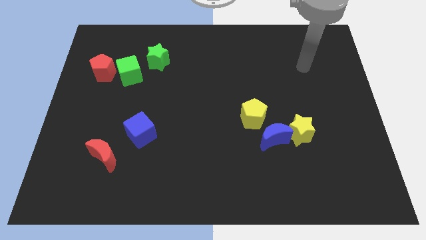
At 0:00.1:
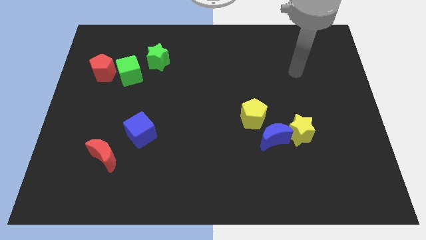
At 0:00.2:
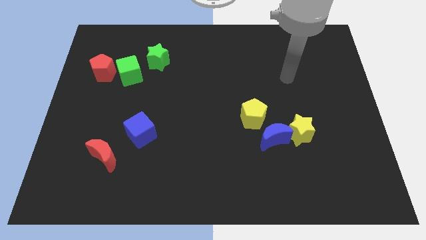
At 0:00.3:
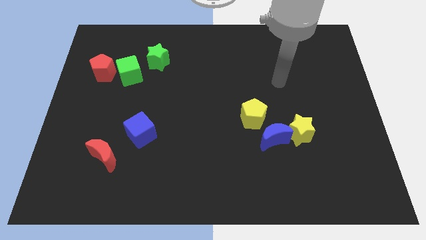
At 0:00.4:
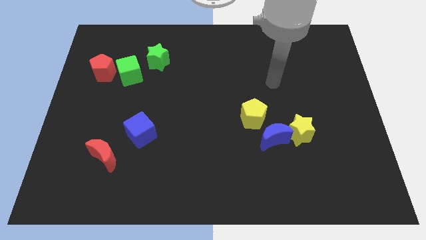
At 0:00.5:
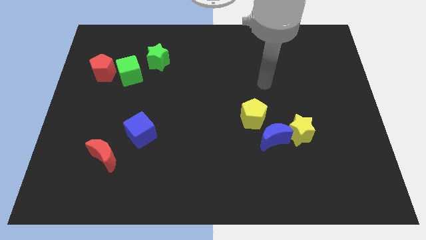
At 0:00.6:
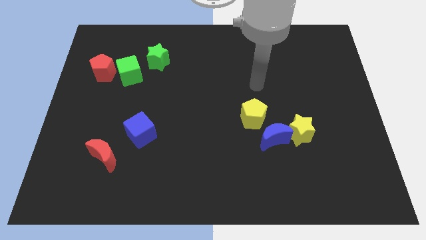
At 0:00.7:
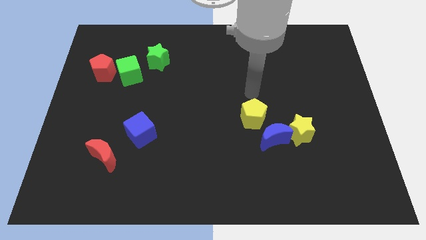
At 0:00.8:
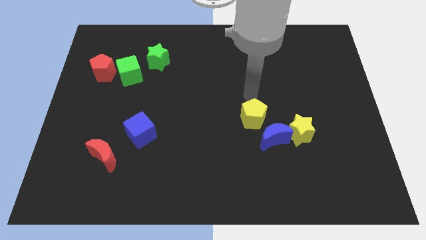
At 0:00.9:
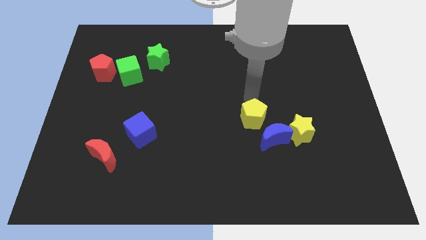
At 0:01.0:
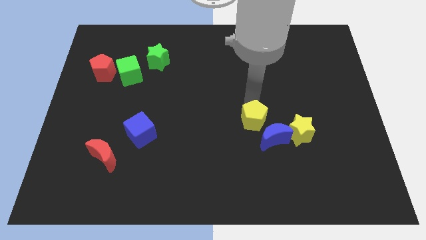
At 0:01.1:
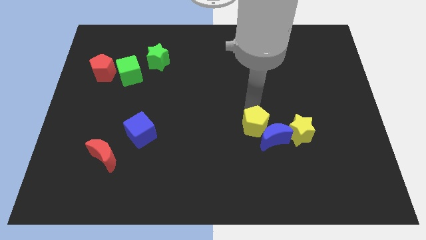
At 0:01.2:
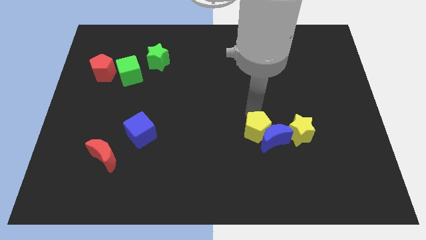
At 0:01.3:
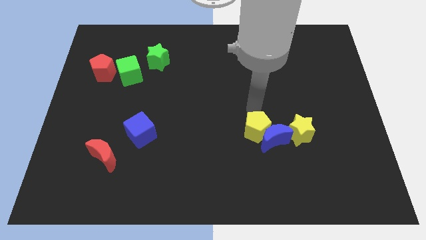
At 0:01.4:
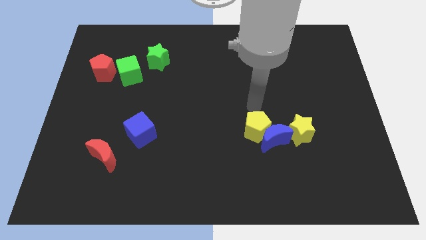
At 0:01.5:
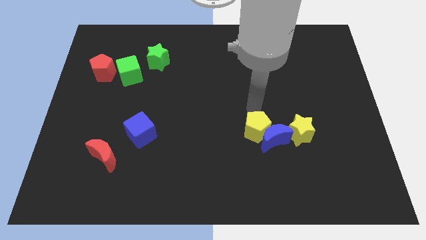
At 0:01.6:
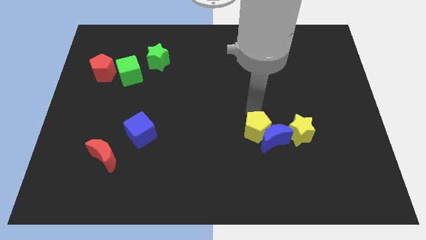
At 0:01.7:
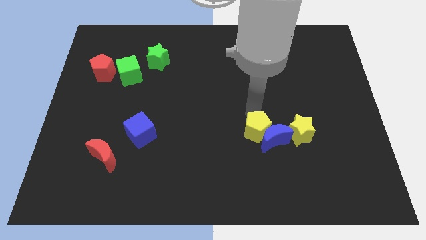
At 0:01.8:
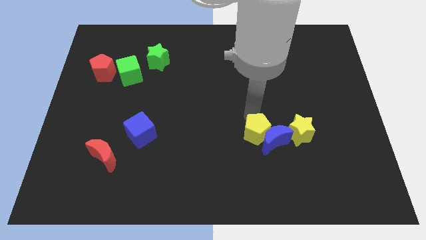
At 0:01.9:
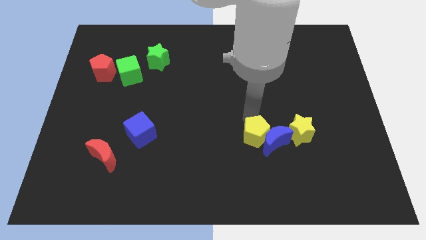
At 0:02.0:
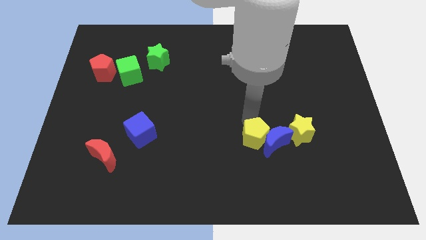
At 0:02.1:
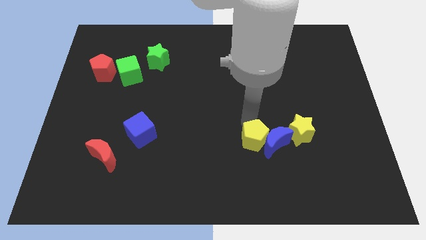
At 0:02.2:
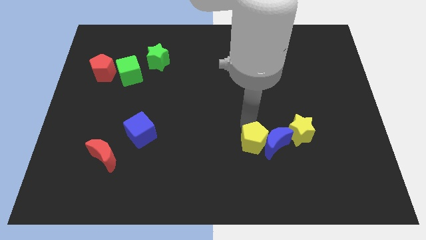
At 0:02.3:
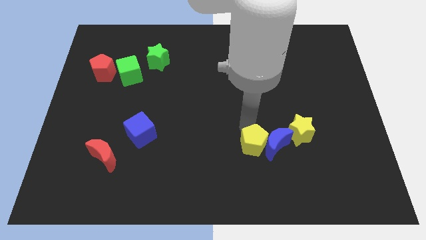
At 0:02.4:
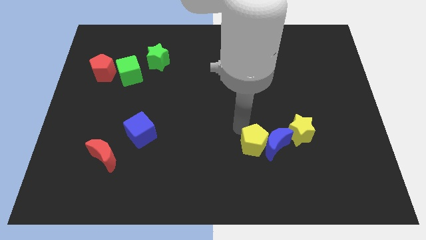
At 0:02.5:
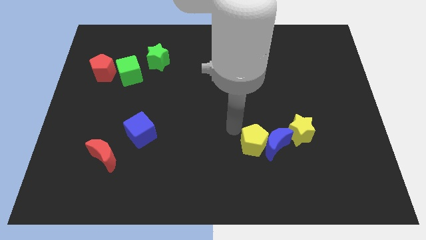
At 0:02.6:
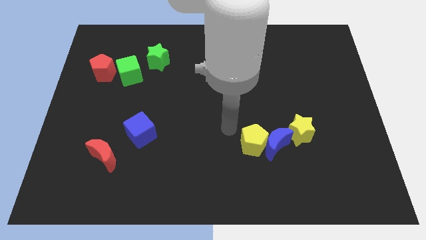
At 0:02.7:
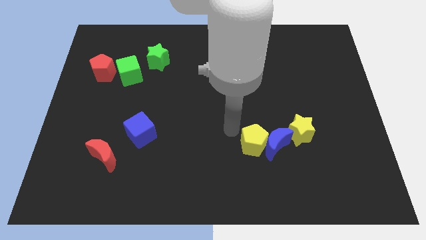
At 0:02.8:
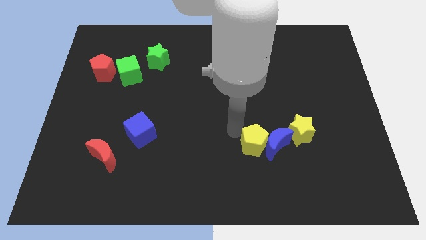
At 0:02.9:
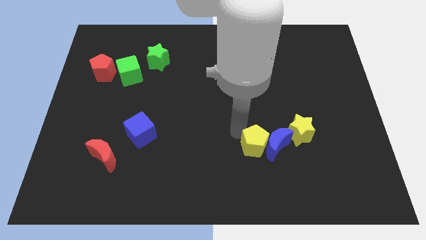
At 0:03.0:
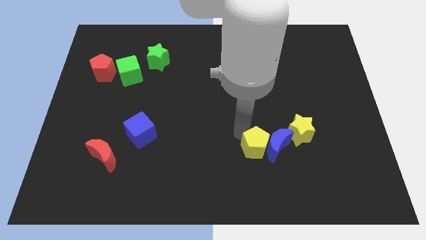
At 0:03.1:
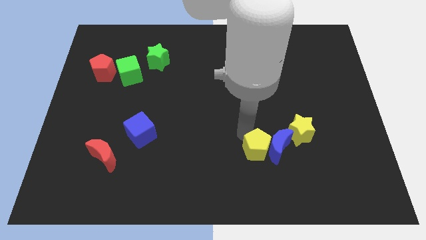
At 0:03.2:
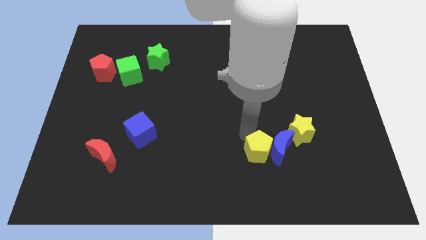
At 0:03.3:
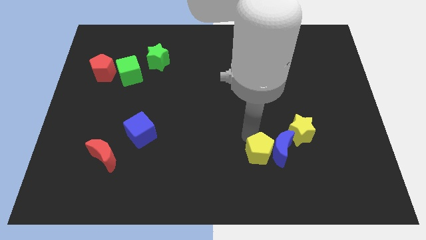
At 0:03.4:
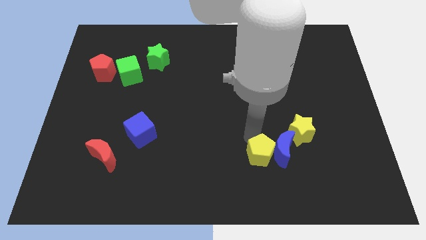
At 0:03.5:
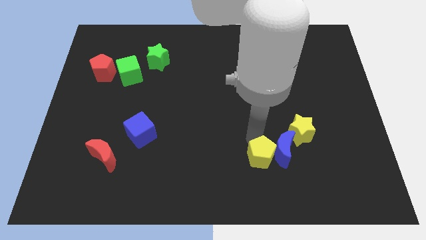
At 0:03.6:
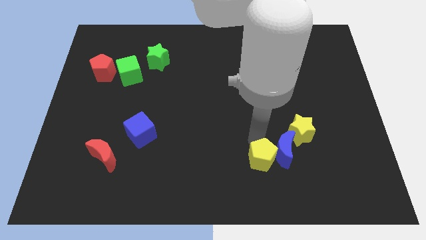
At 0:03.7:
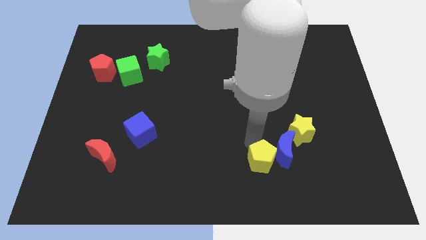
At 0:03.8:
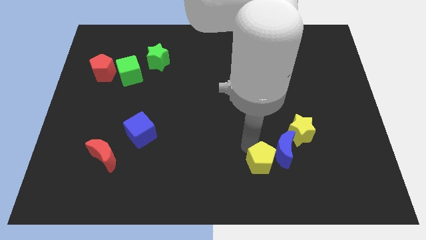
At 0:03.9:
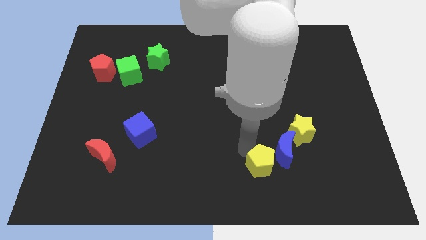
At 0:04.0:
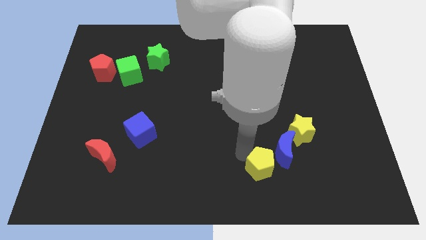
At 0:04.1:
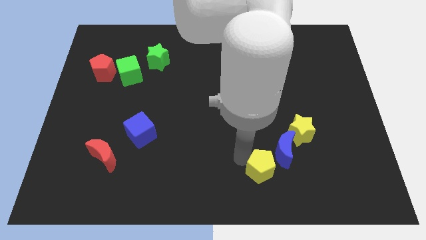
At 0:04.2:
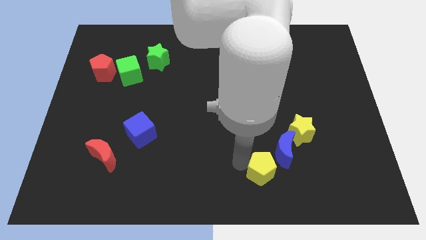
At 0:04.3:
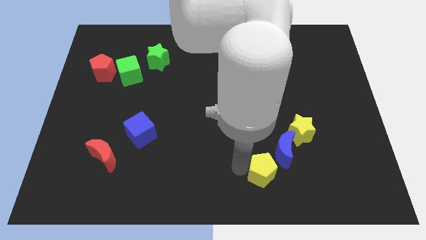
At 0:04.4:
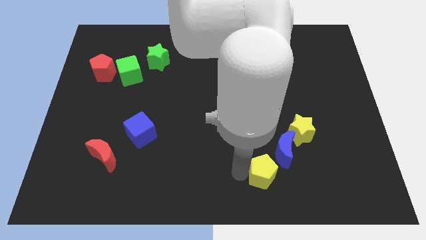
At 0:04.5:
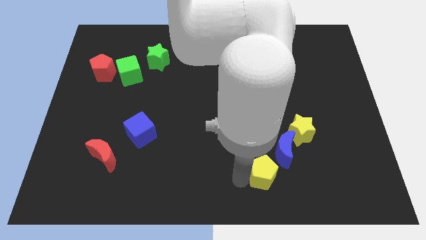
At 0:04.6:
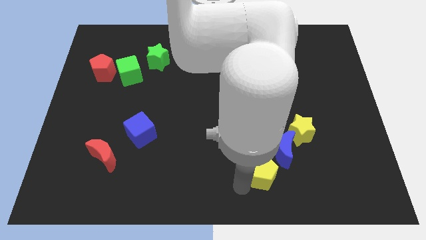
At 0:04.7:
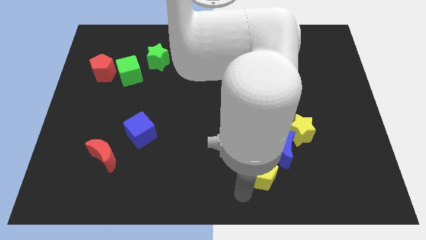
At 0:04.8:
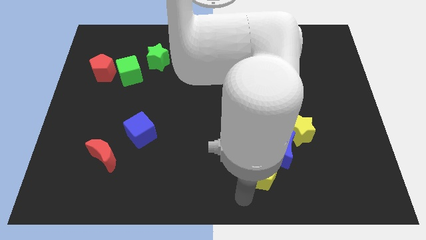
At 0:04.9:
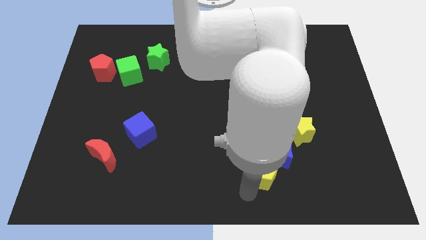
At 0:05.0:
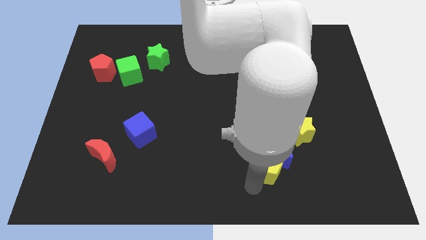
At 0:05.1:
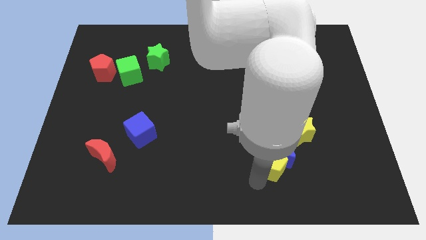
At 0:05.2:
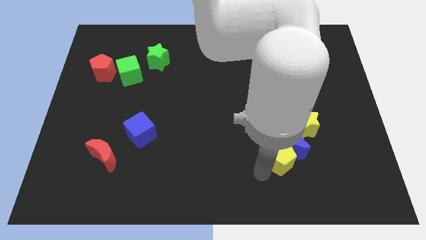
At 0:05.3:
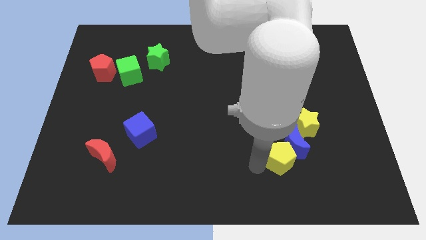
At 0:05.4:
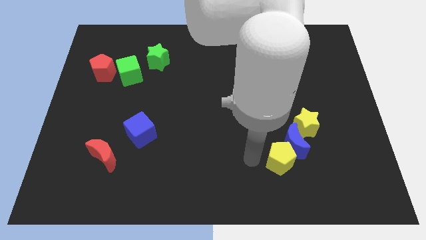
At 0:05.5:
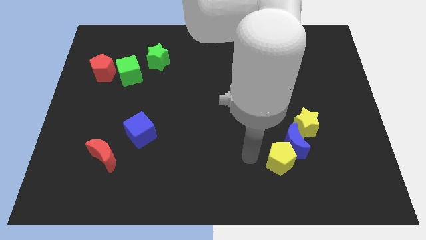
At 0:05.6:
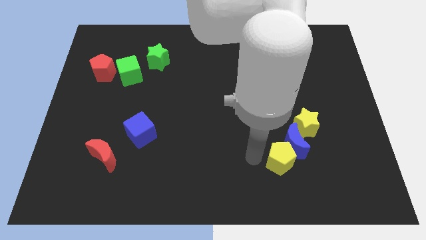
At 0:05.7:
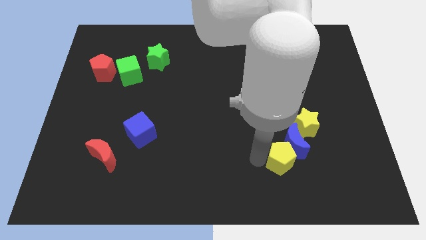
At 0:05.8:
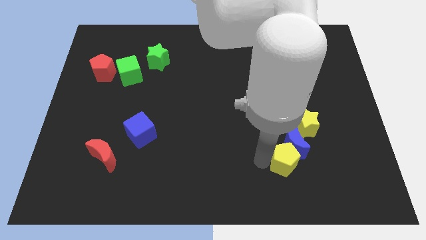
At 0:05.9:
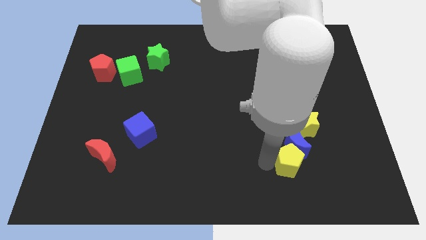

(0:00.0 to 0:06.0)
slide the yellow pentagon to the bottom right side of the blue moon

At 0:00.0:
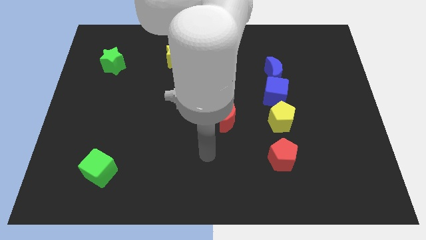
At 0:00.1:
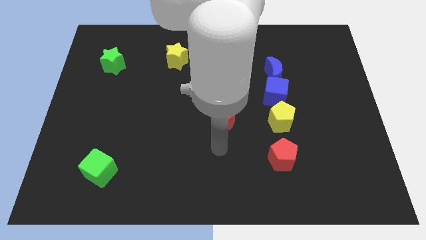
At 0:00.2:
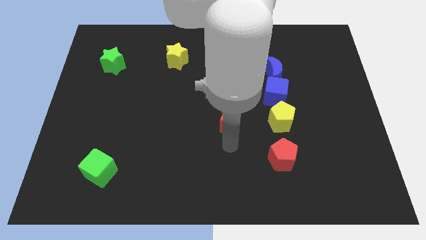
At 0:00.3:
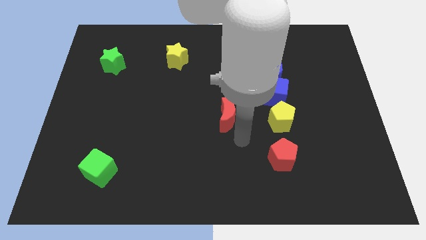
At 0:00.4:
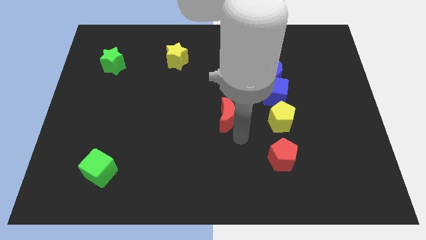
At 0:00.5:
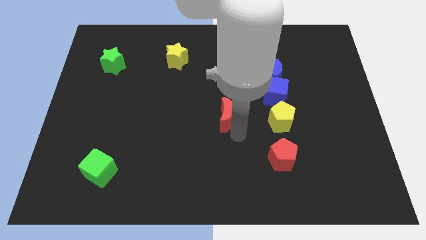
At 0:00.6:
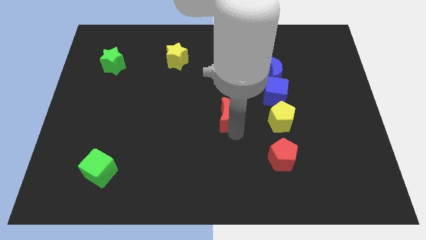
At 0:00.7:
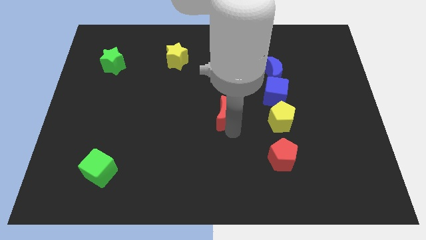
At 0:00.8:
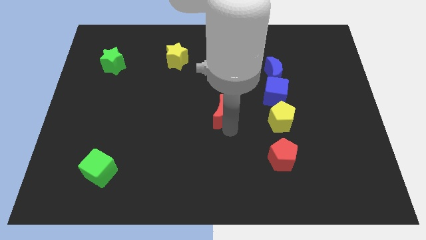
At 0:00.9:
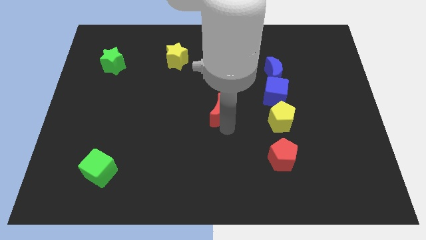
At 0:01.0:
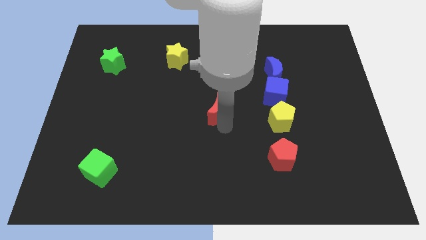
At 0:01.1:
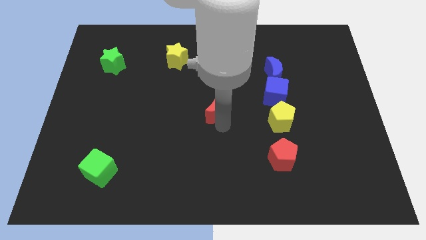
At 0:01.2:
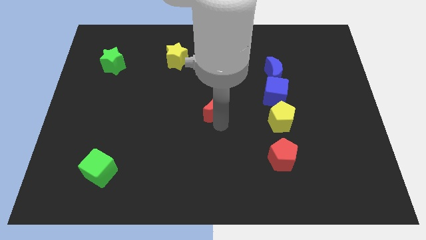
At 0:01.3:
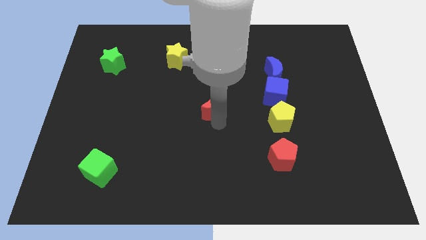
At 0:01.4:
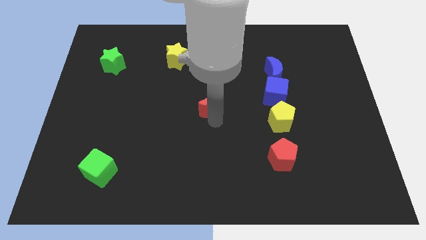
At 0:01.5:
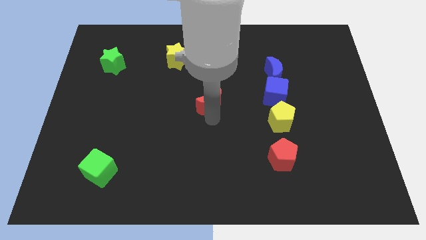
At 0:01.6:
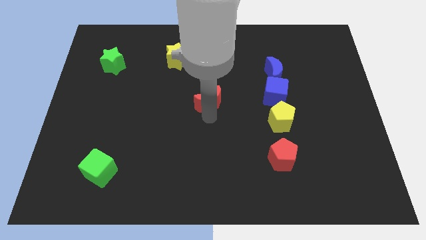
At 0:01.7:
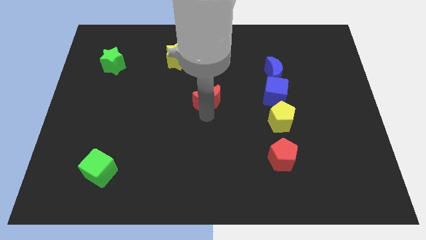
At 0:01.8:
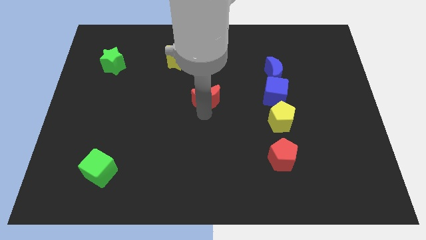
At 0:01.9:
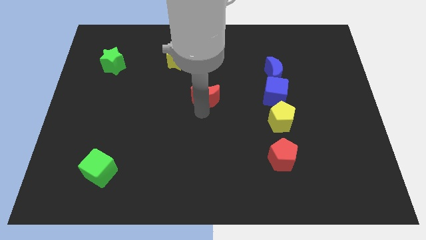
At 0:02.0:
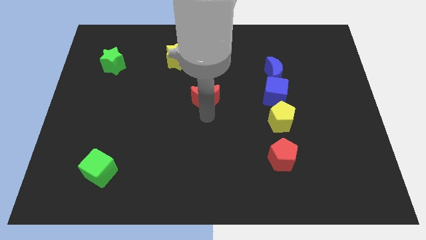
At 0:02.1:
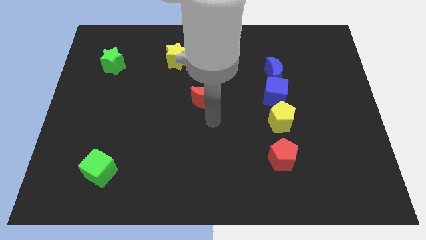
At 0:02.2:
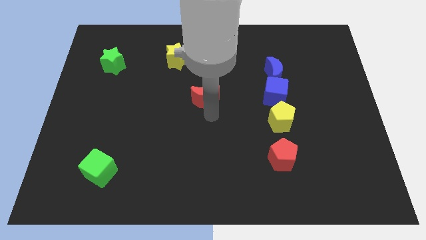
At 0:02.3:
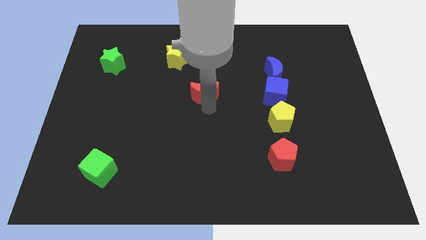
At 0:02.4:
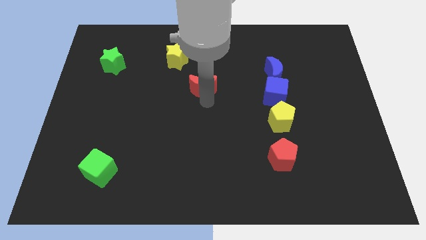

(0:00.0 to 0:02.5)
put the red moon to the bottom right of the yellow star
